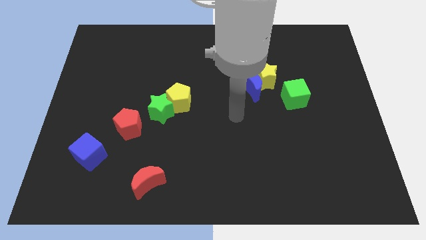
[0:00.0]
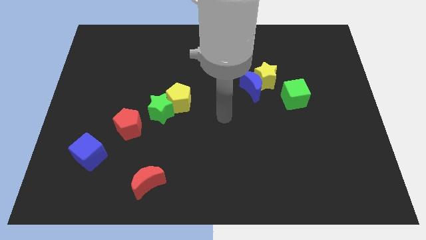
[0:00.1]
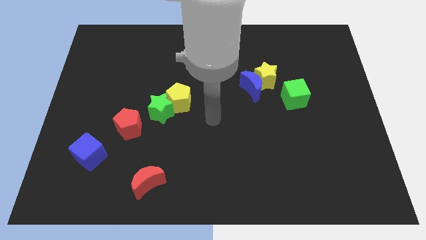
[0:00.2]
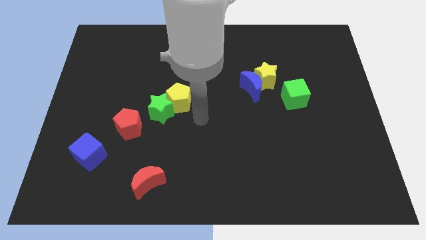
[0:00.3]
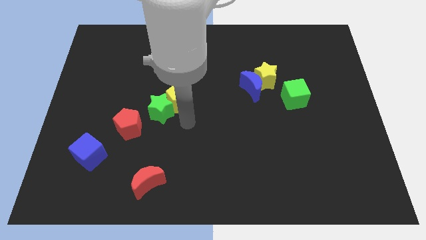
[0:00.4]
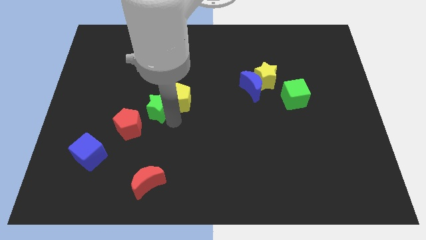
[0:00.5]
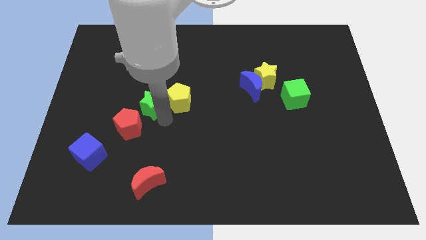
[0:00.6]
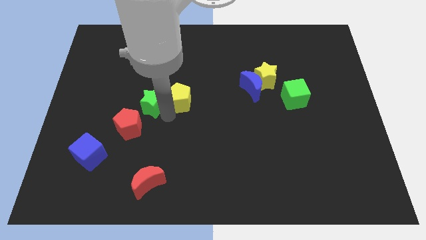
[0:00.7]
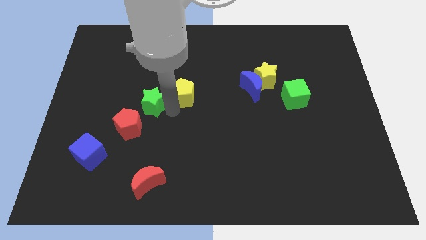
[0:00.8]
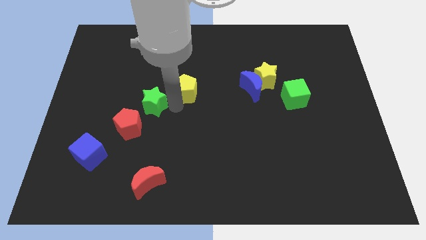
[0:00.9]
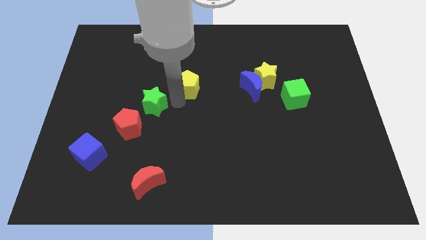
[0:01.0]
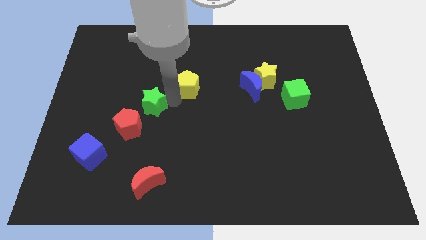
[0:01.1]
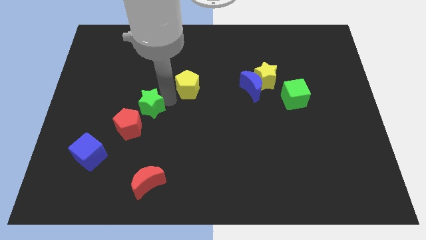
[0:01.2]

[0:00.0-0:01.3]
move the yellow pentagon away from the green star

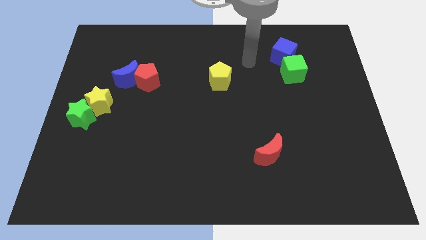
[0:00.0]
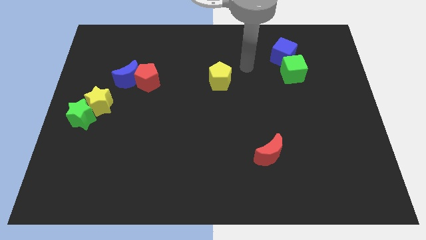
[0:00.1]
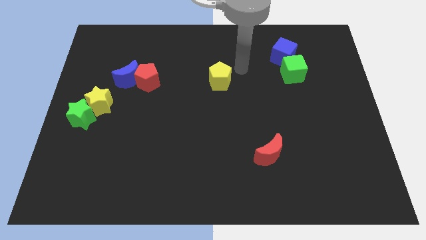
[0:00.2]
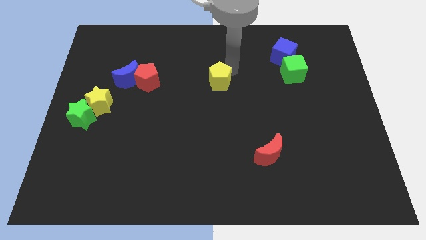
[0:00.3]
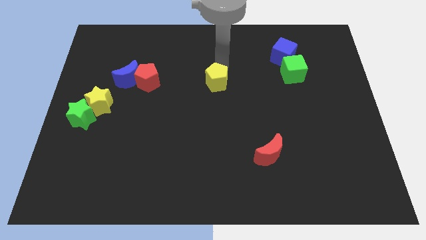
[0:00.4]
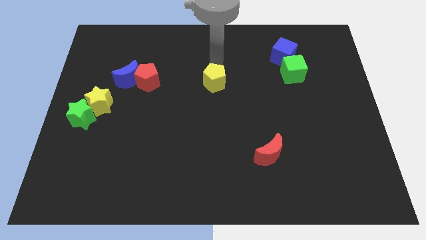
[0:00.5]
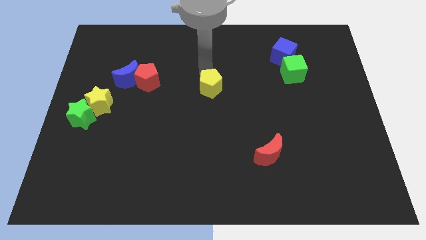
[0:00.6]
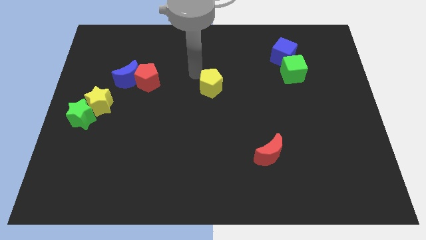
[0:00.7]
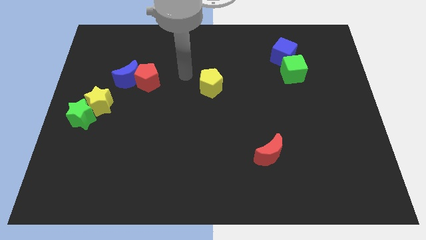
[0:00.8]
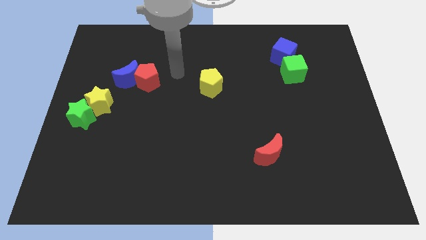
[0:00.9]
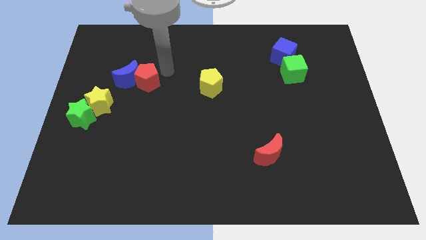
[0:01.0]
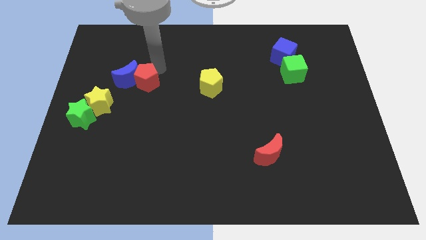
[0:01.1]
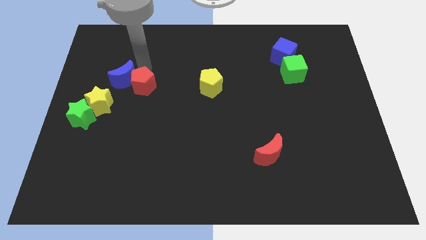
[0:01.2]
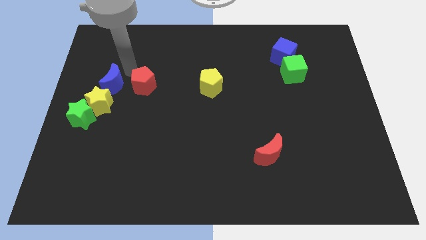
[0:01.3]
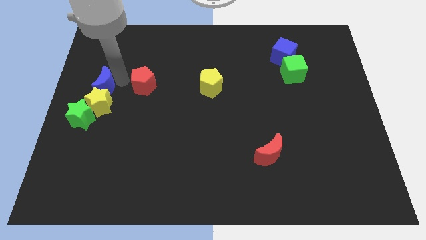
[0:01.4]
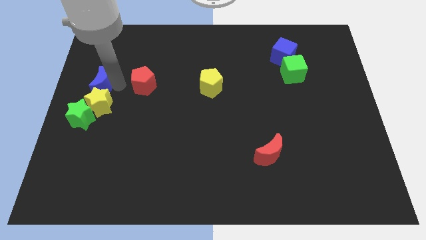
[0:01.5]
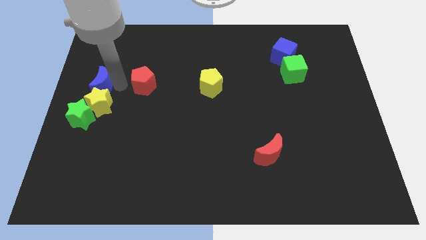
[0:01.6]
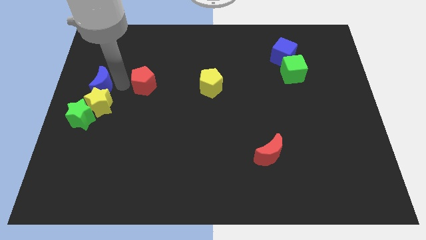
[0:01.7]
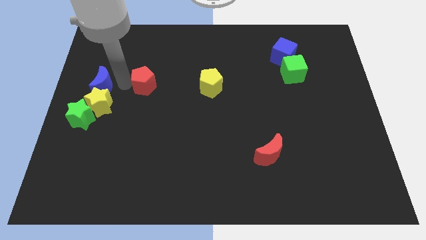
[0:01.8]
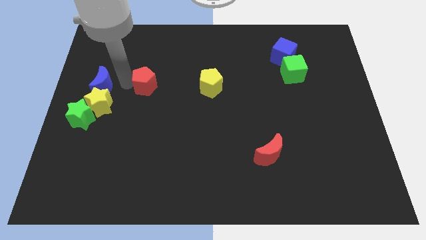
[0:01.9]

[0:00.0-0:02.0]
move the red pentagon away from the blue moon

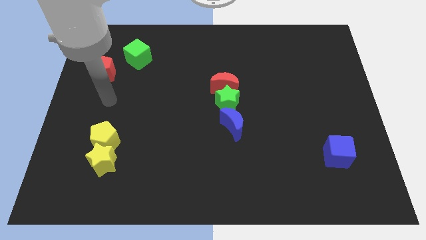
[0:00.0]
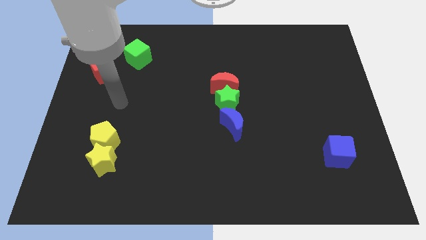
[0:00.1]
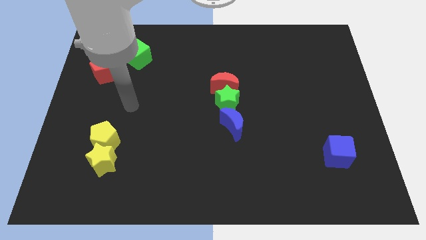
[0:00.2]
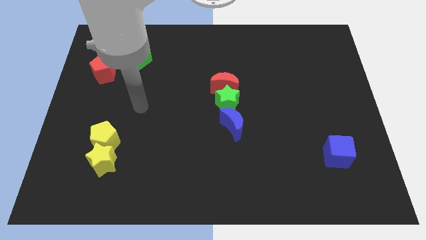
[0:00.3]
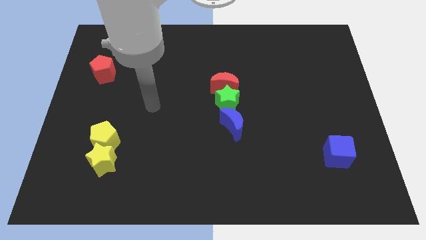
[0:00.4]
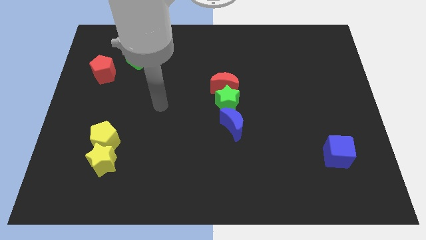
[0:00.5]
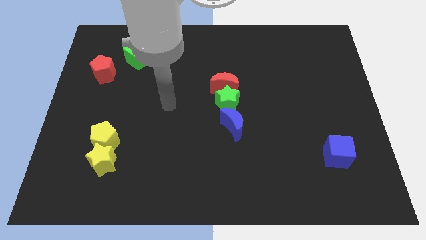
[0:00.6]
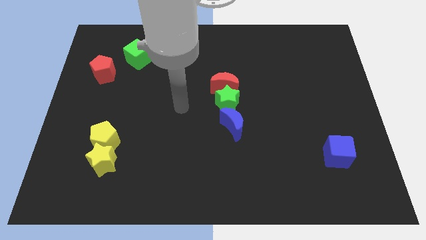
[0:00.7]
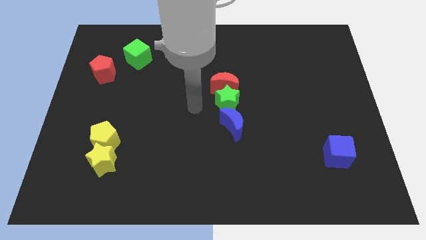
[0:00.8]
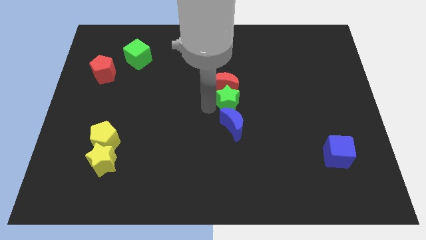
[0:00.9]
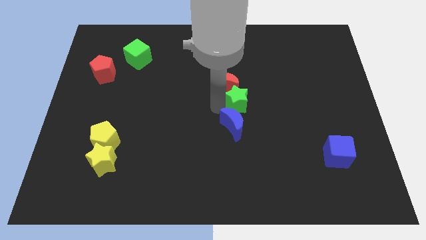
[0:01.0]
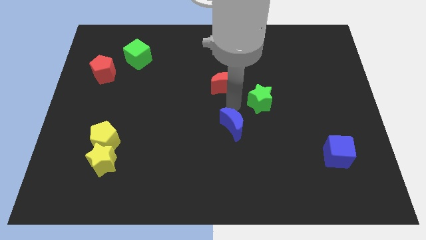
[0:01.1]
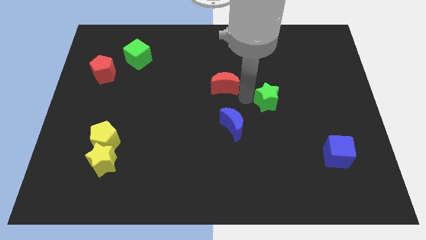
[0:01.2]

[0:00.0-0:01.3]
move the red moon away from the green star

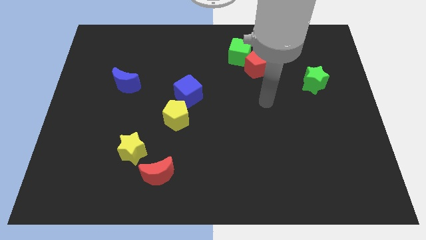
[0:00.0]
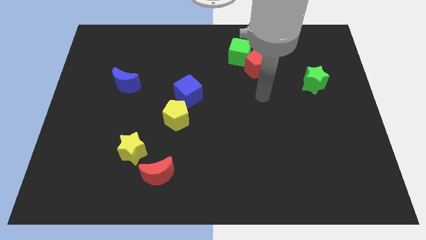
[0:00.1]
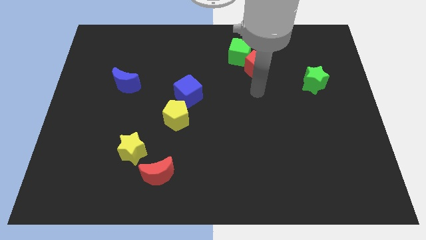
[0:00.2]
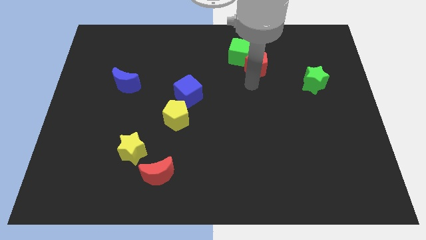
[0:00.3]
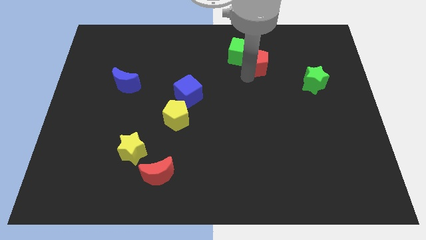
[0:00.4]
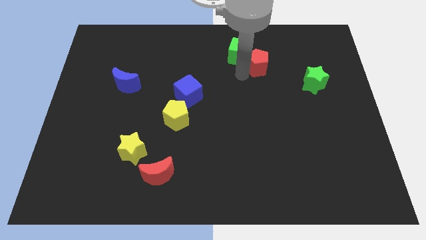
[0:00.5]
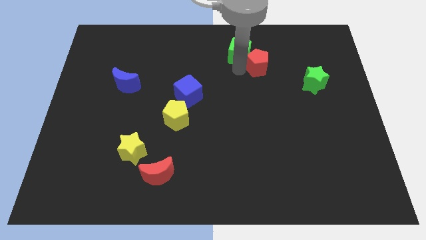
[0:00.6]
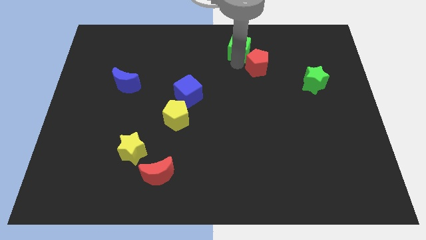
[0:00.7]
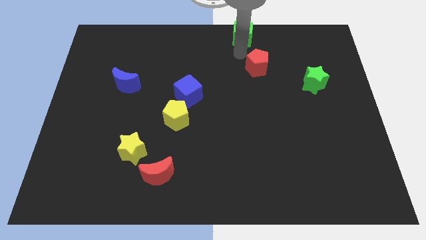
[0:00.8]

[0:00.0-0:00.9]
separate the red pentagon from the green cube

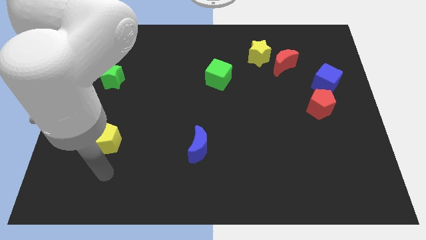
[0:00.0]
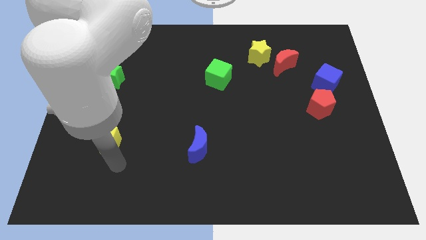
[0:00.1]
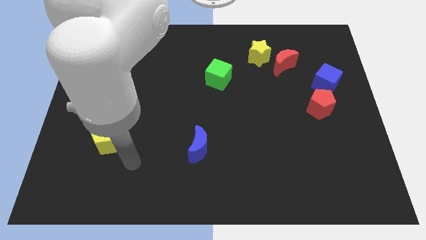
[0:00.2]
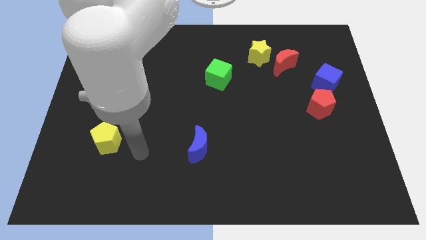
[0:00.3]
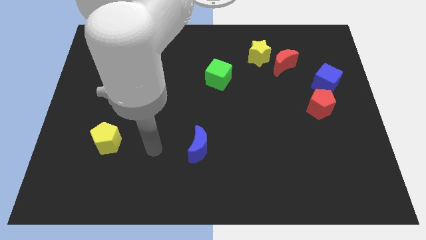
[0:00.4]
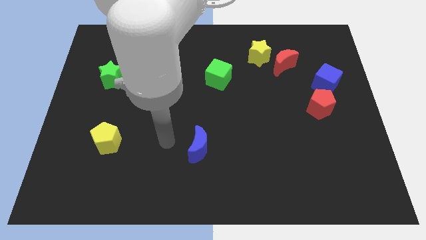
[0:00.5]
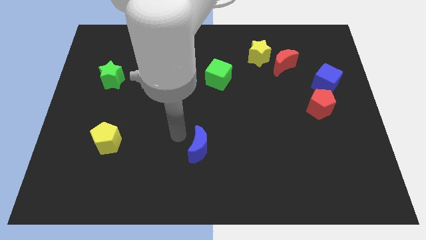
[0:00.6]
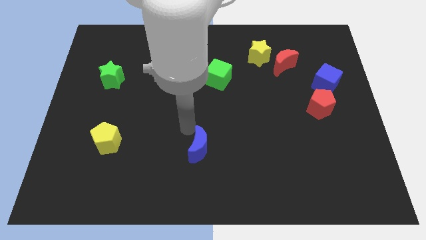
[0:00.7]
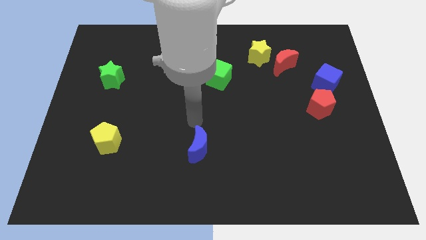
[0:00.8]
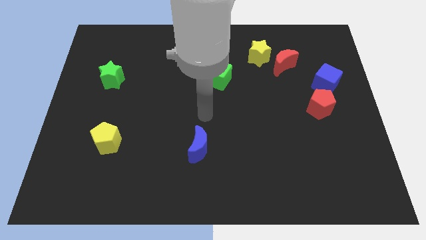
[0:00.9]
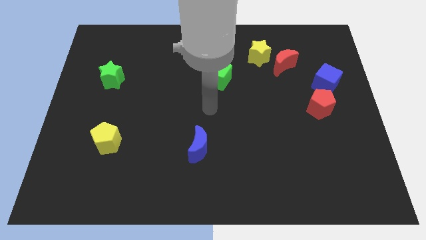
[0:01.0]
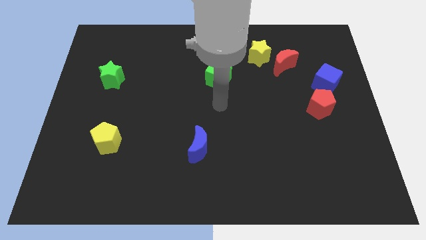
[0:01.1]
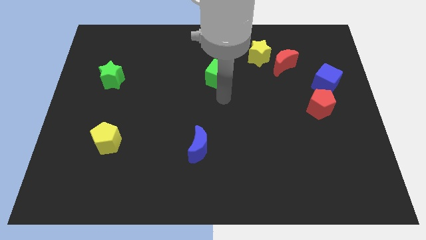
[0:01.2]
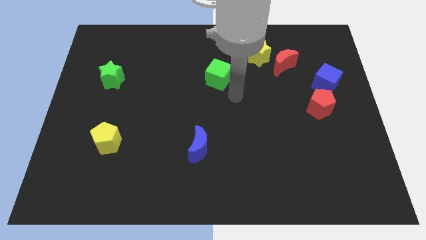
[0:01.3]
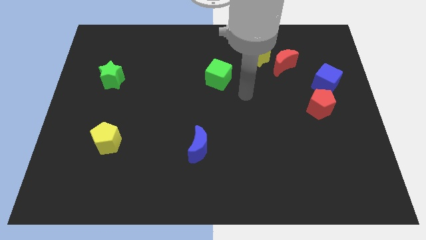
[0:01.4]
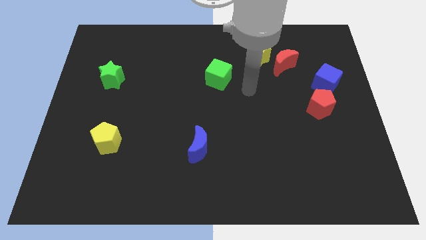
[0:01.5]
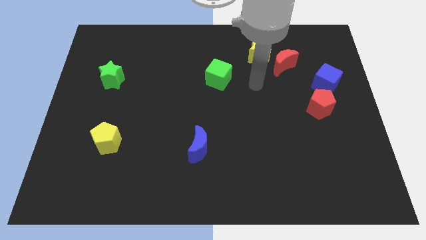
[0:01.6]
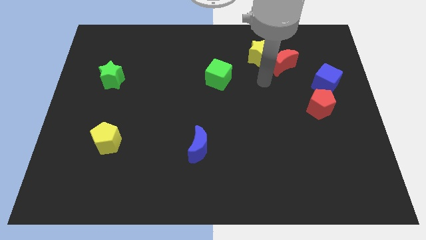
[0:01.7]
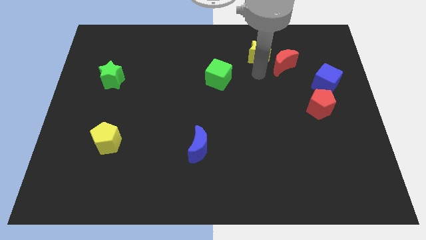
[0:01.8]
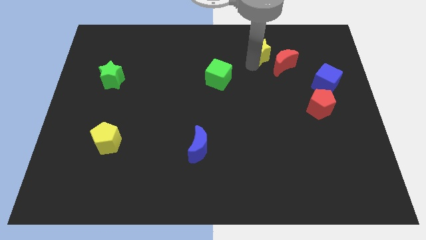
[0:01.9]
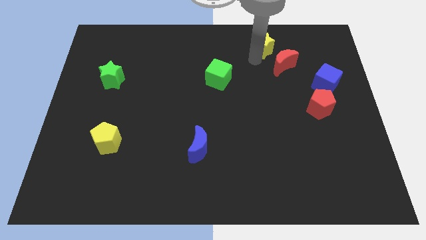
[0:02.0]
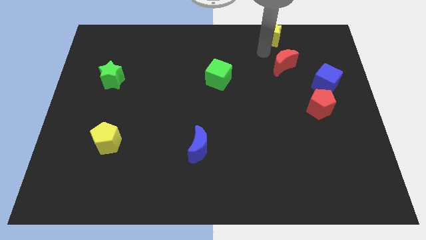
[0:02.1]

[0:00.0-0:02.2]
pull the red moon apart from the yellow star

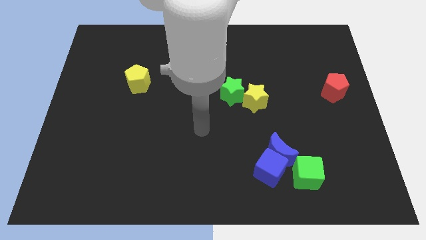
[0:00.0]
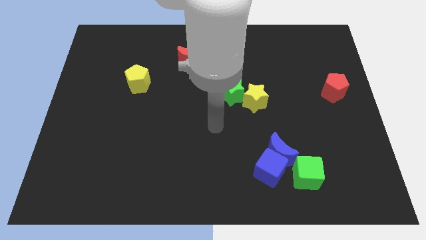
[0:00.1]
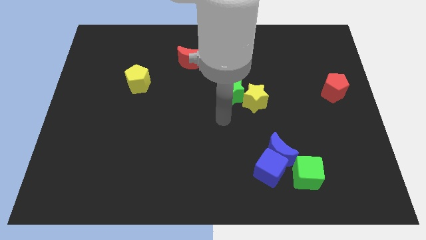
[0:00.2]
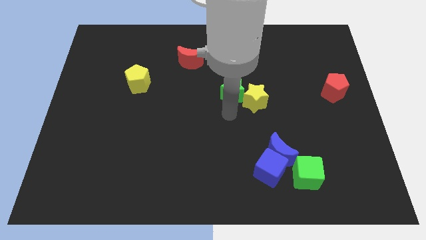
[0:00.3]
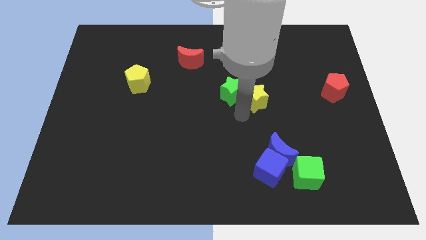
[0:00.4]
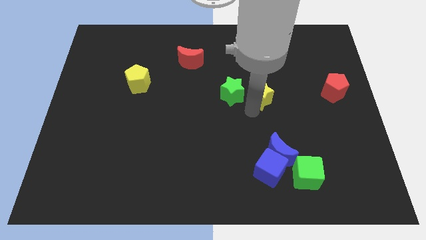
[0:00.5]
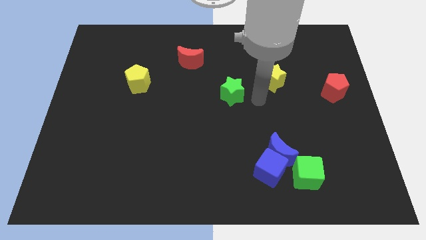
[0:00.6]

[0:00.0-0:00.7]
move the green star away from the yellow star

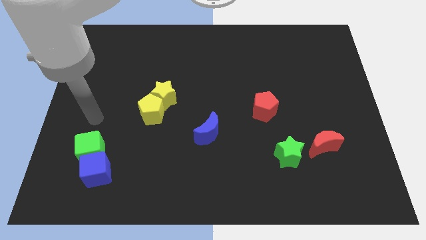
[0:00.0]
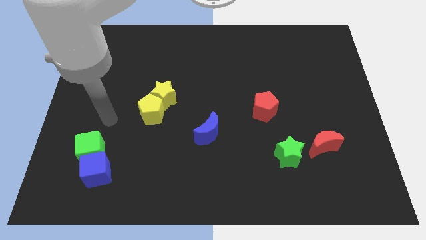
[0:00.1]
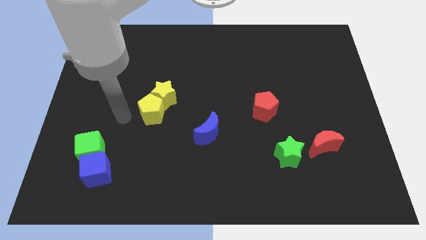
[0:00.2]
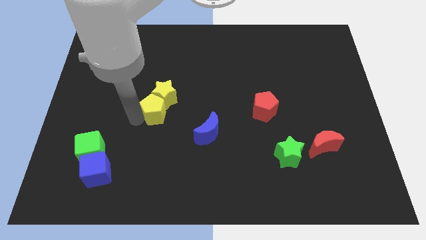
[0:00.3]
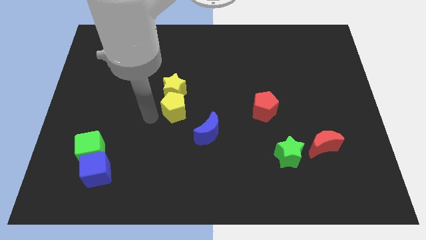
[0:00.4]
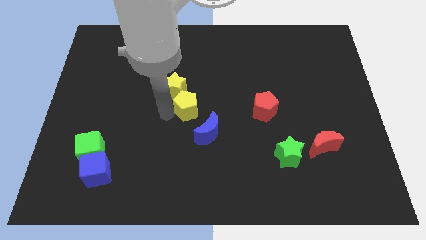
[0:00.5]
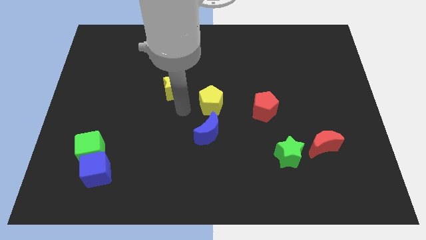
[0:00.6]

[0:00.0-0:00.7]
move the yellow star away from the yellow pentagon

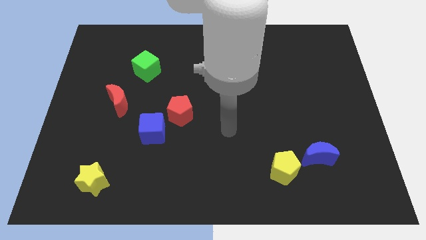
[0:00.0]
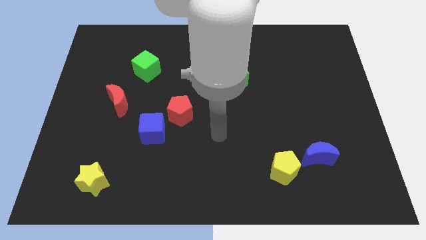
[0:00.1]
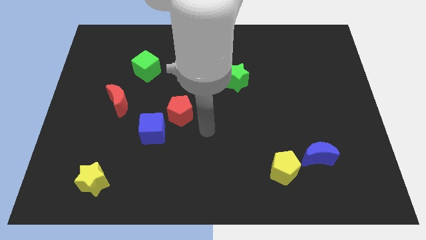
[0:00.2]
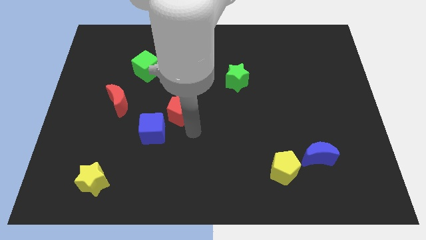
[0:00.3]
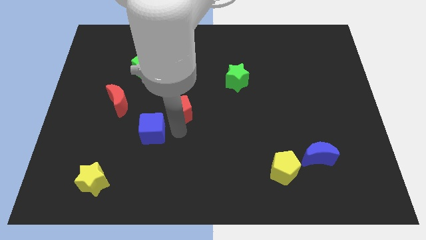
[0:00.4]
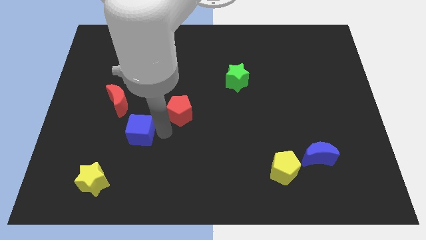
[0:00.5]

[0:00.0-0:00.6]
separate the red pentagon from the blue cube
